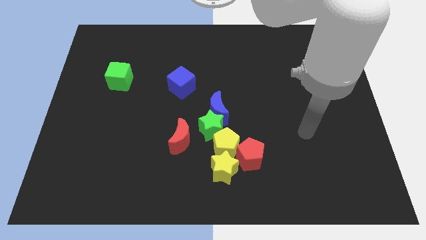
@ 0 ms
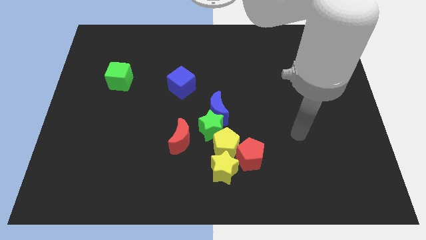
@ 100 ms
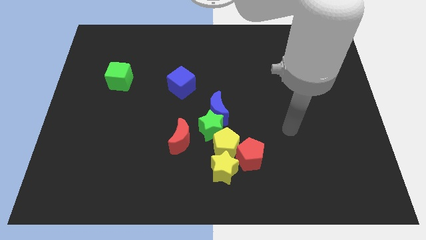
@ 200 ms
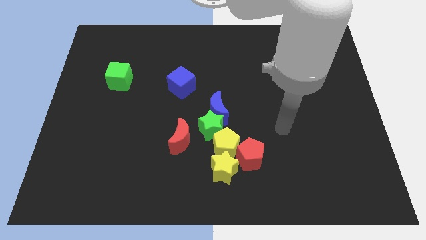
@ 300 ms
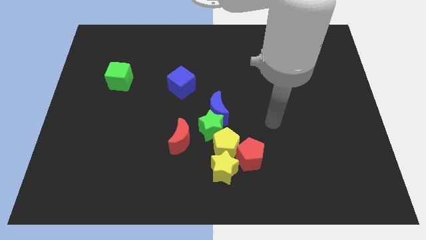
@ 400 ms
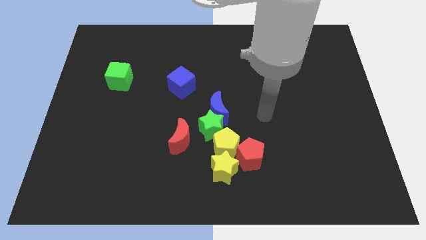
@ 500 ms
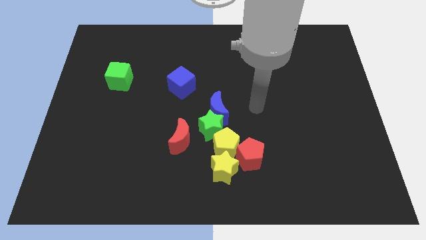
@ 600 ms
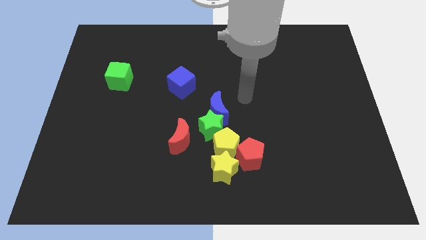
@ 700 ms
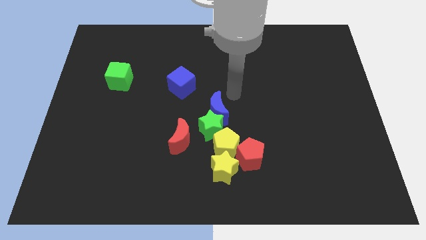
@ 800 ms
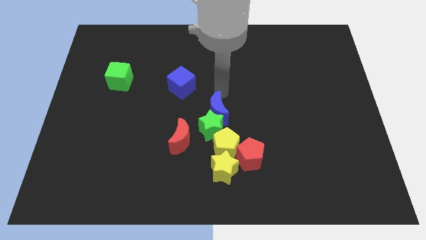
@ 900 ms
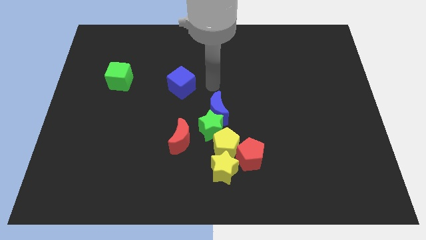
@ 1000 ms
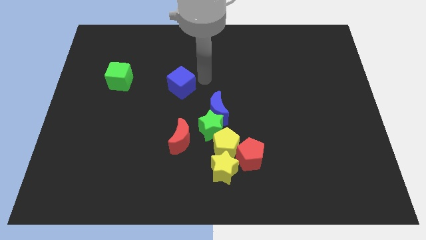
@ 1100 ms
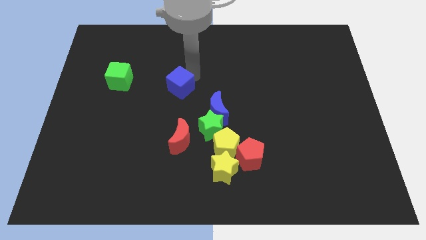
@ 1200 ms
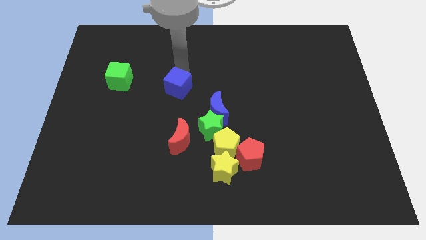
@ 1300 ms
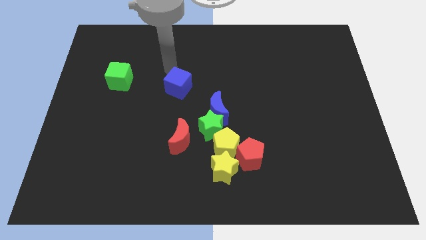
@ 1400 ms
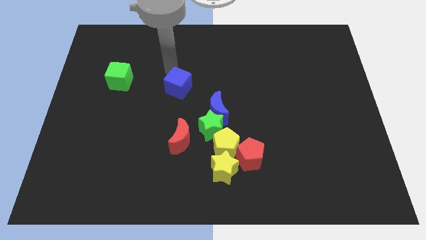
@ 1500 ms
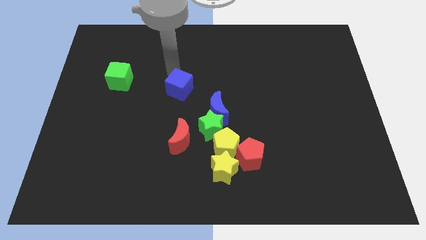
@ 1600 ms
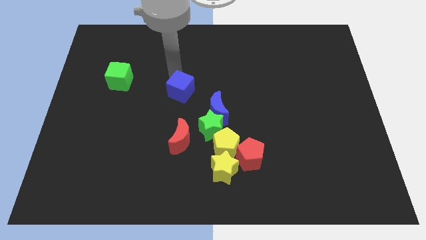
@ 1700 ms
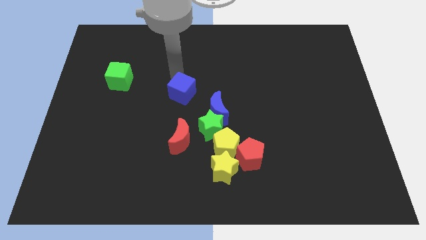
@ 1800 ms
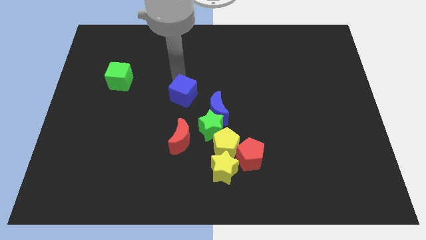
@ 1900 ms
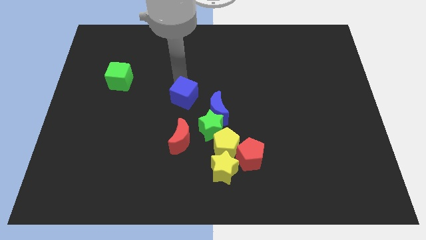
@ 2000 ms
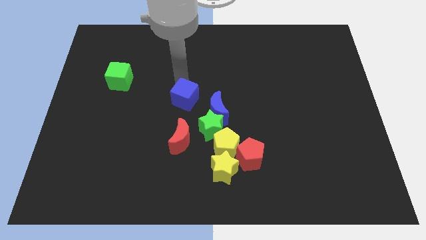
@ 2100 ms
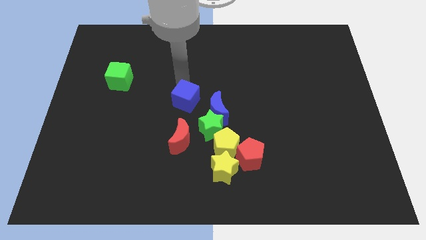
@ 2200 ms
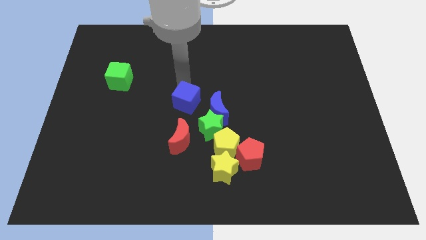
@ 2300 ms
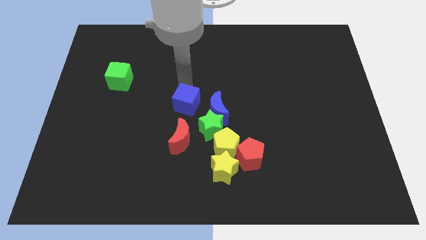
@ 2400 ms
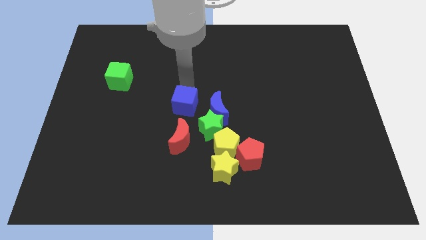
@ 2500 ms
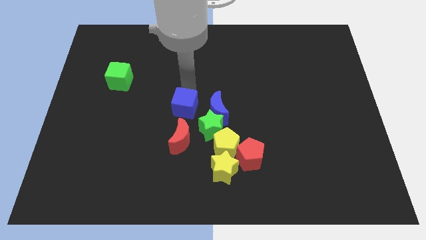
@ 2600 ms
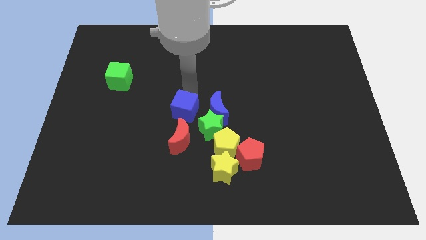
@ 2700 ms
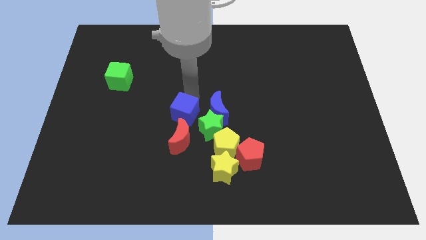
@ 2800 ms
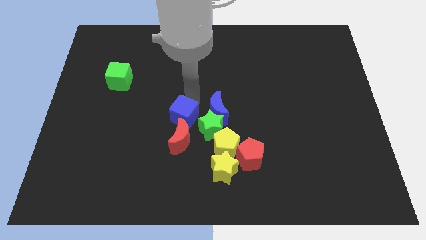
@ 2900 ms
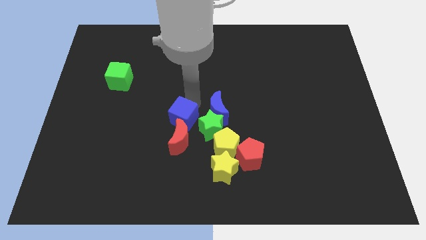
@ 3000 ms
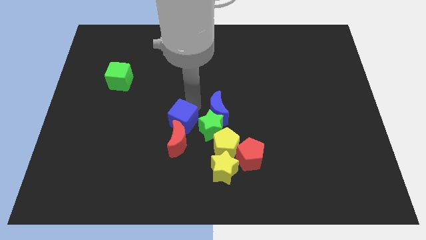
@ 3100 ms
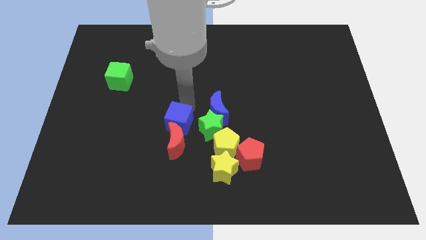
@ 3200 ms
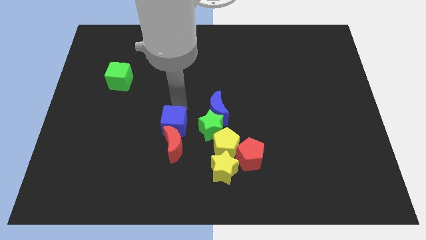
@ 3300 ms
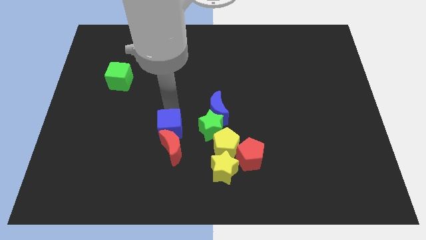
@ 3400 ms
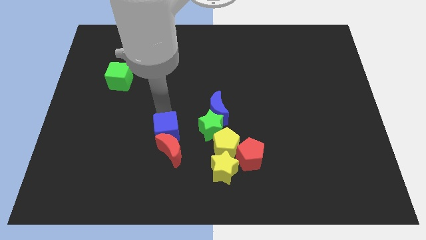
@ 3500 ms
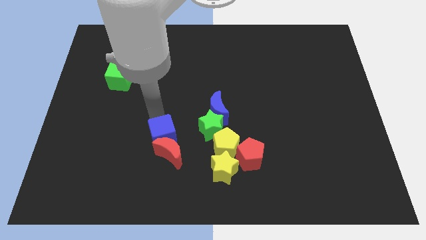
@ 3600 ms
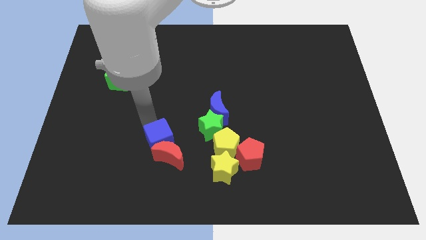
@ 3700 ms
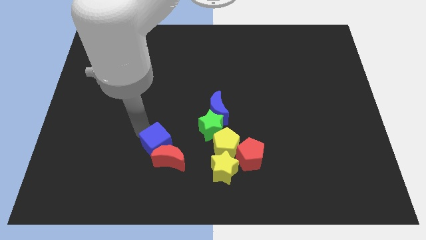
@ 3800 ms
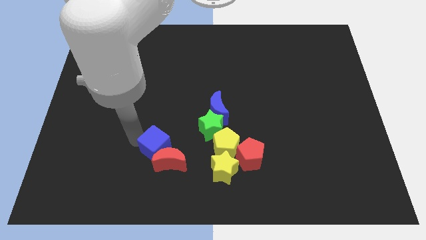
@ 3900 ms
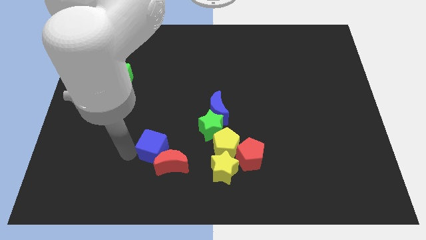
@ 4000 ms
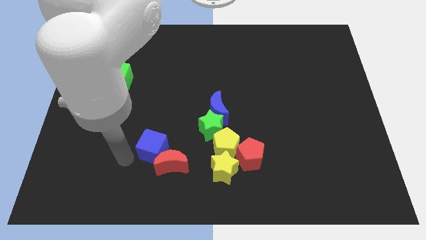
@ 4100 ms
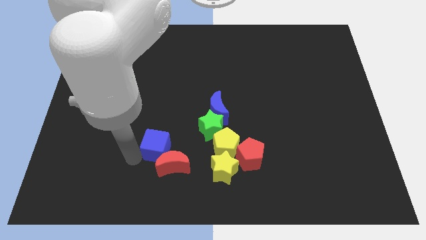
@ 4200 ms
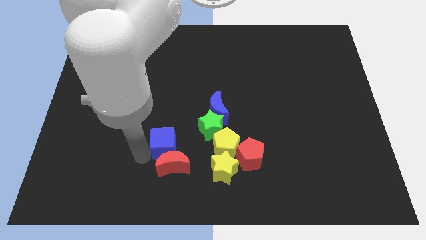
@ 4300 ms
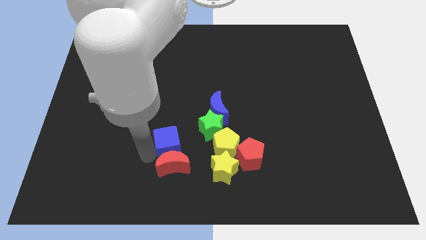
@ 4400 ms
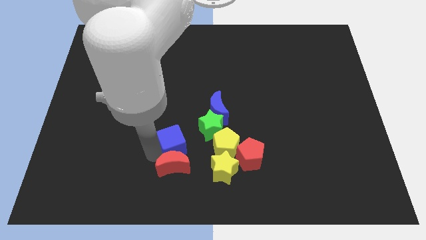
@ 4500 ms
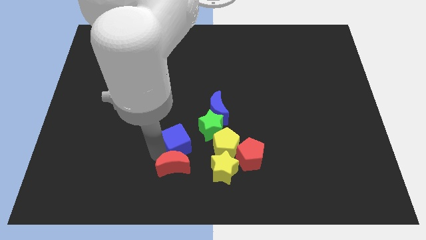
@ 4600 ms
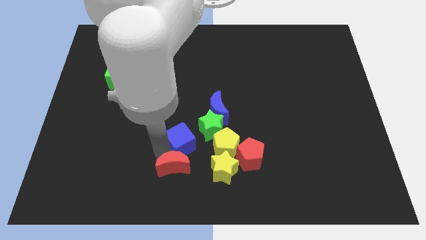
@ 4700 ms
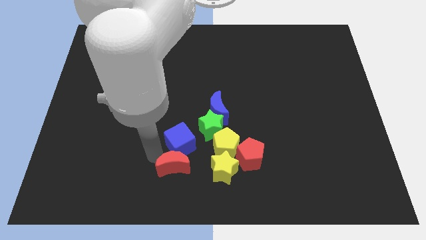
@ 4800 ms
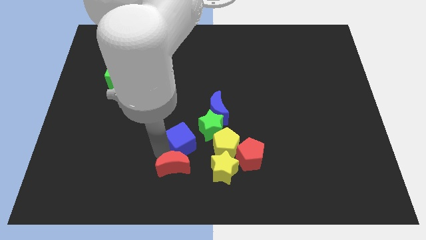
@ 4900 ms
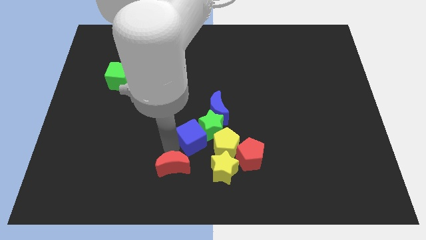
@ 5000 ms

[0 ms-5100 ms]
move the blue cube next to the green star

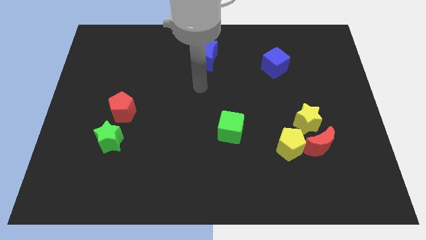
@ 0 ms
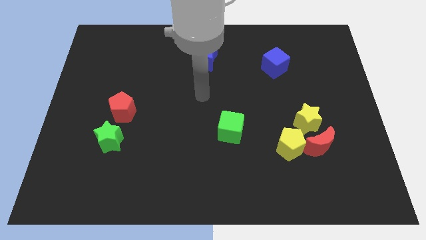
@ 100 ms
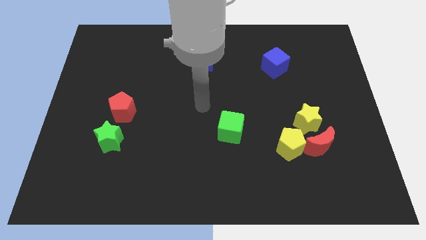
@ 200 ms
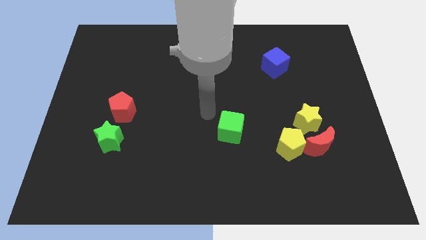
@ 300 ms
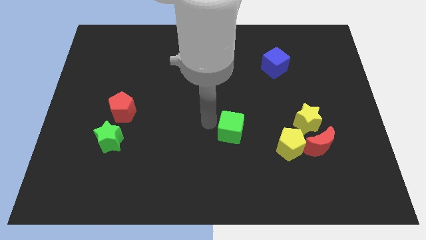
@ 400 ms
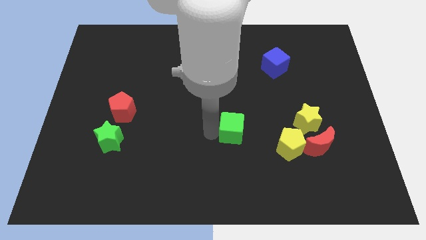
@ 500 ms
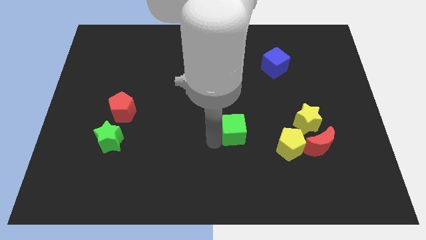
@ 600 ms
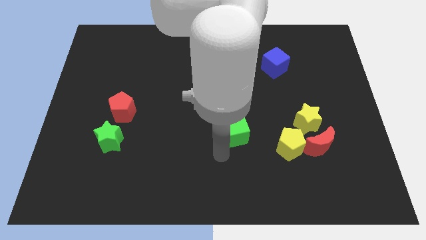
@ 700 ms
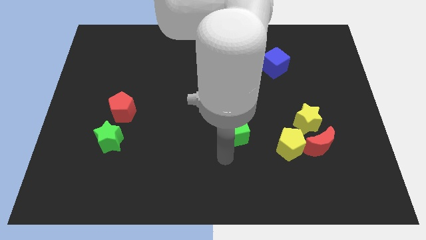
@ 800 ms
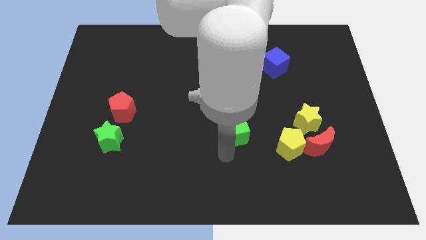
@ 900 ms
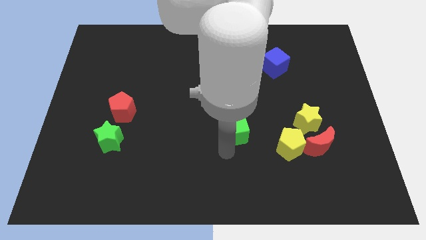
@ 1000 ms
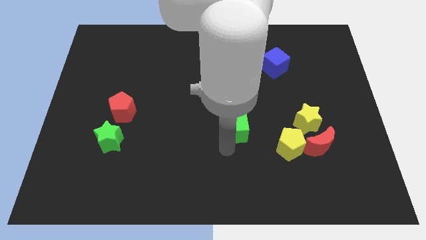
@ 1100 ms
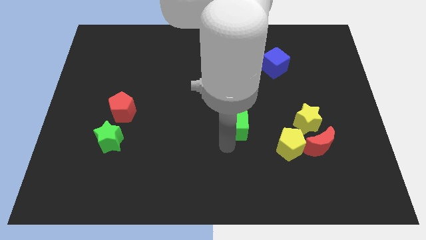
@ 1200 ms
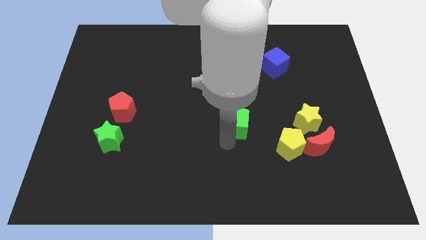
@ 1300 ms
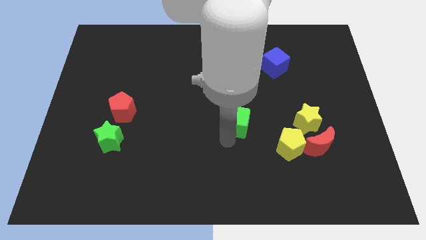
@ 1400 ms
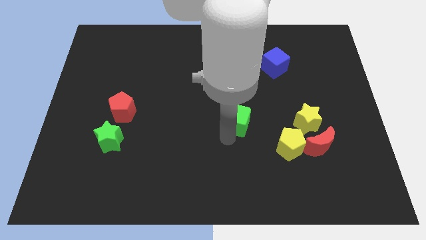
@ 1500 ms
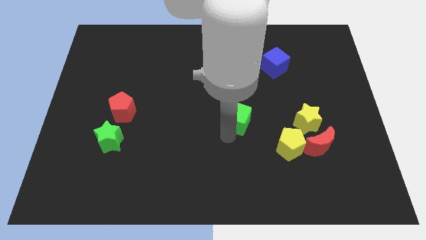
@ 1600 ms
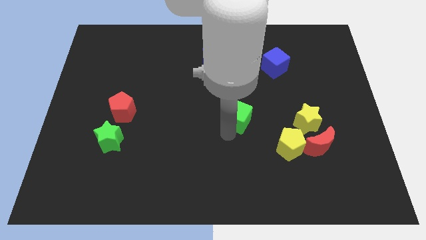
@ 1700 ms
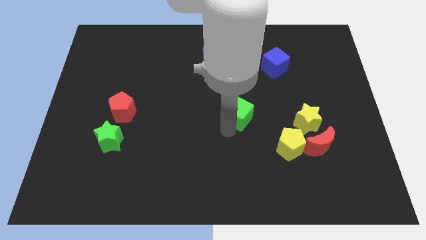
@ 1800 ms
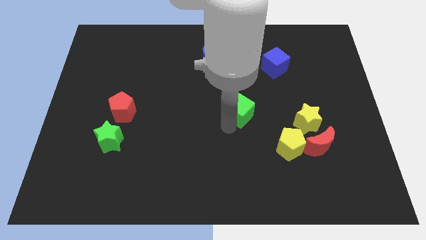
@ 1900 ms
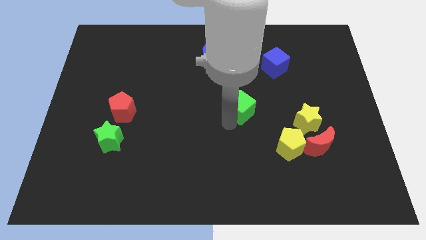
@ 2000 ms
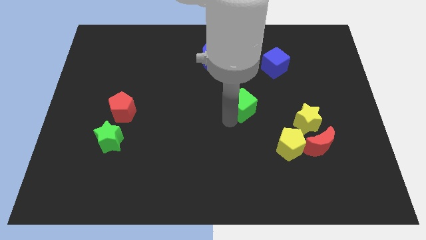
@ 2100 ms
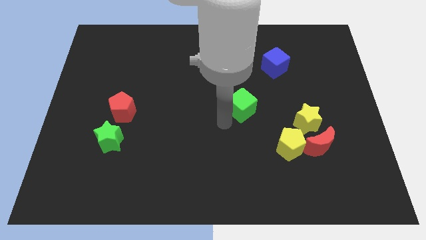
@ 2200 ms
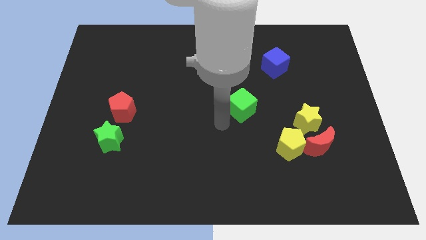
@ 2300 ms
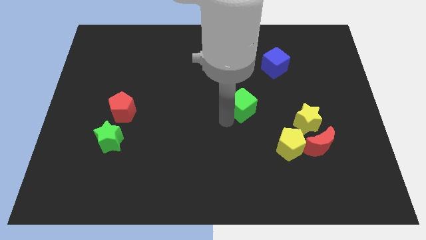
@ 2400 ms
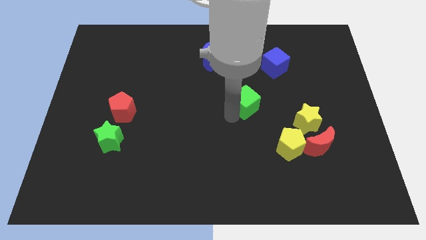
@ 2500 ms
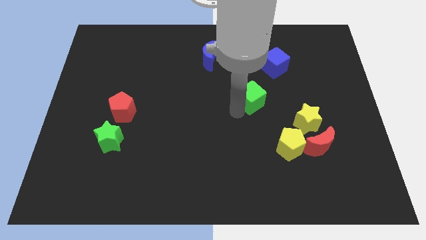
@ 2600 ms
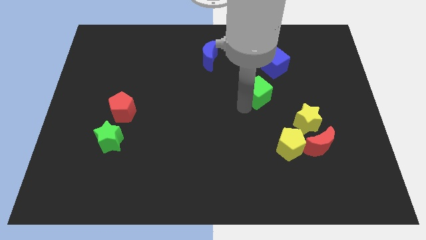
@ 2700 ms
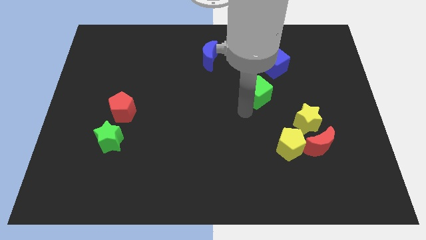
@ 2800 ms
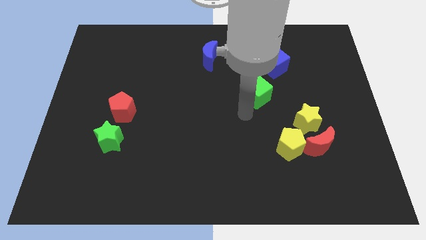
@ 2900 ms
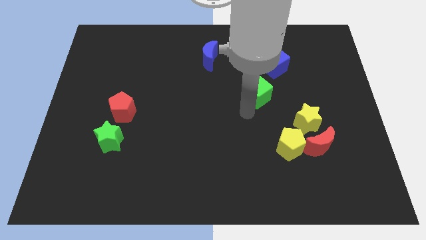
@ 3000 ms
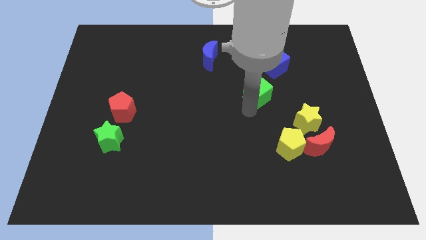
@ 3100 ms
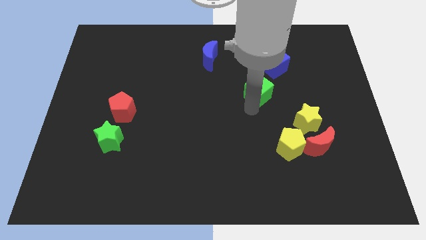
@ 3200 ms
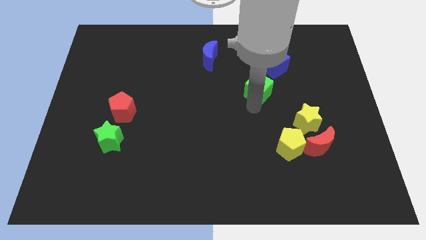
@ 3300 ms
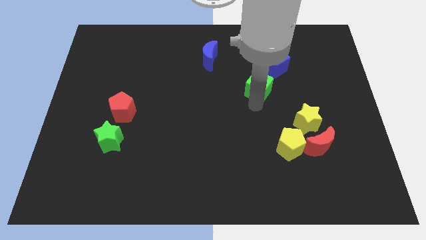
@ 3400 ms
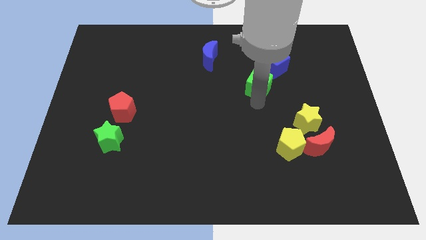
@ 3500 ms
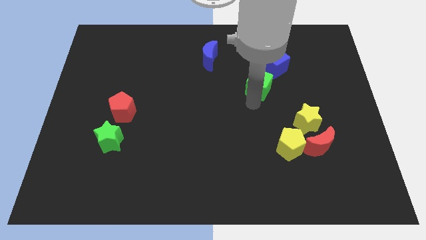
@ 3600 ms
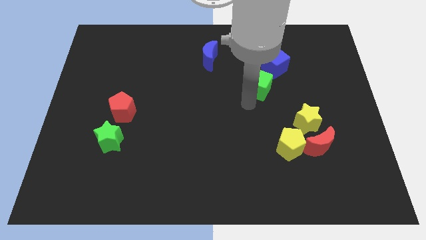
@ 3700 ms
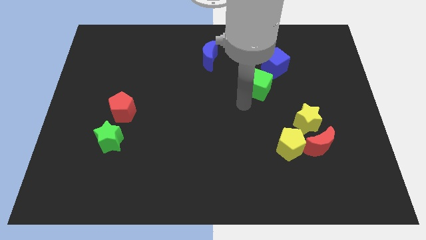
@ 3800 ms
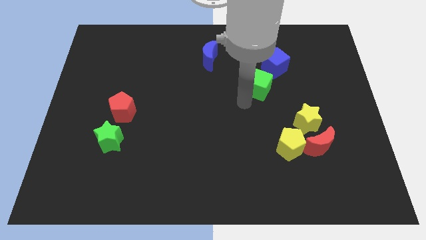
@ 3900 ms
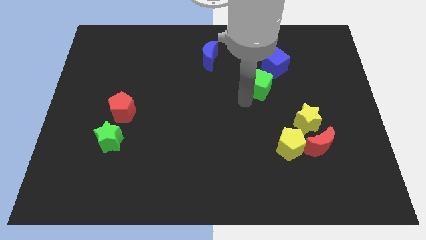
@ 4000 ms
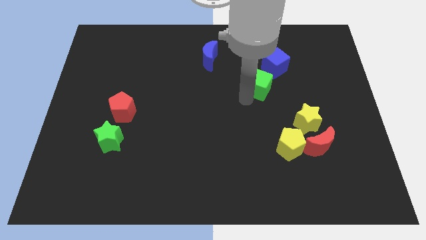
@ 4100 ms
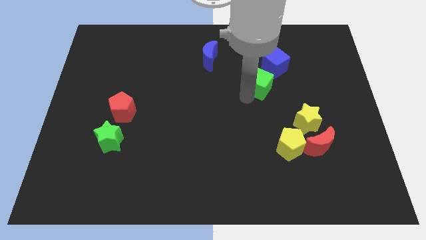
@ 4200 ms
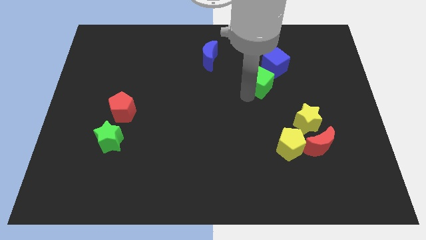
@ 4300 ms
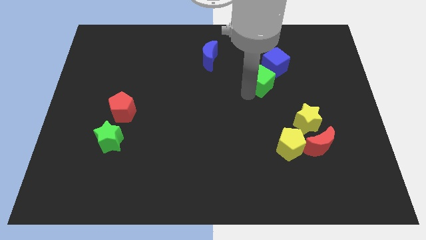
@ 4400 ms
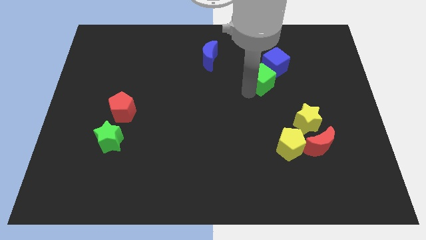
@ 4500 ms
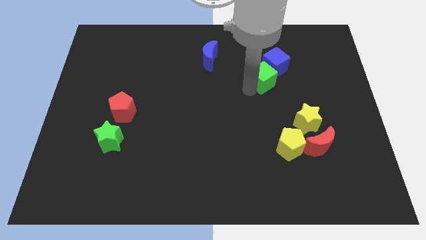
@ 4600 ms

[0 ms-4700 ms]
push the green cube towards the blue cube
